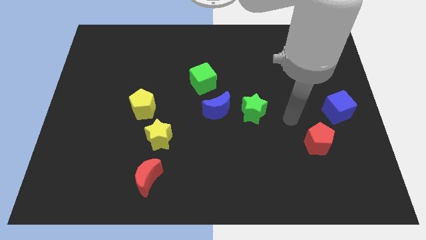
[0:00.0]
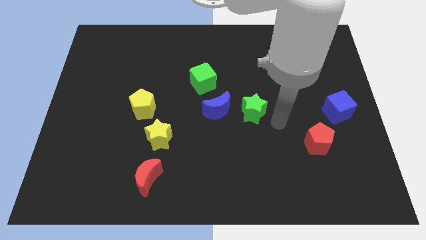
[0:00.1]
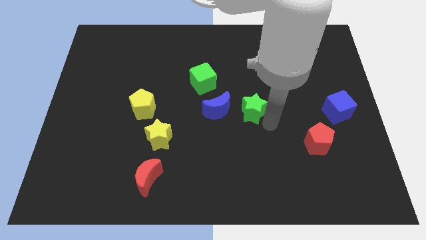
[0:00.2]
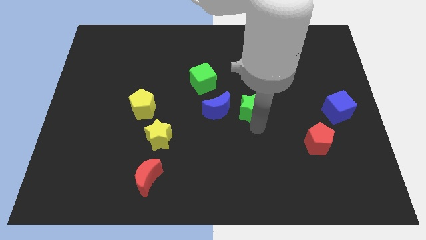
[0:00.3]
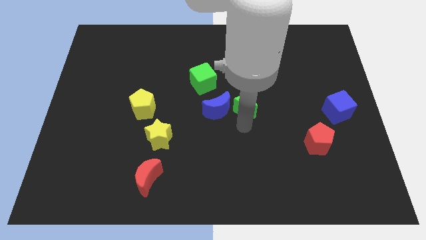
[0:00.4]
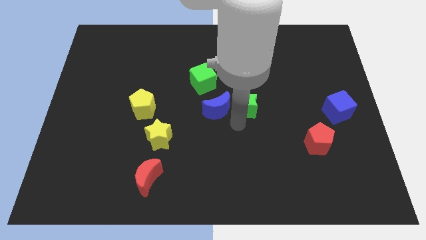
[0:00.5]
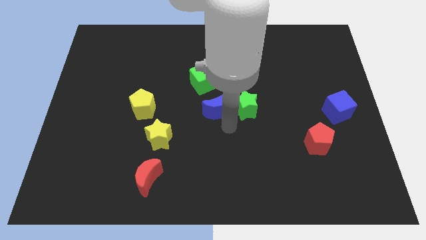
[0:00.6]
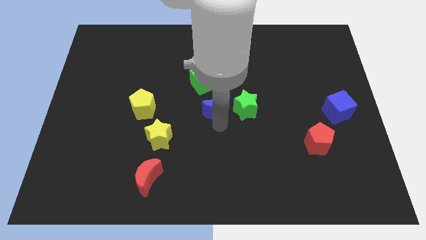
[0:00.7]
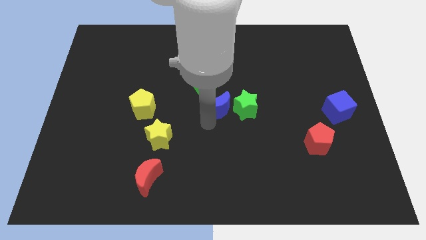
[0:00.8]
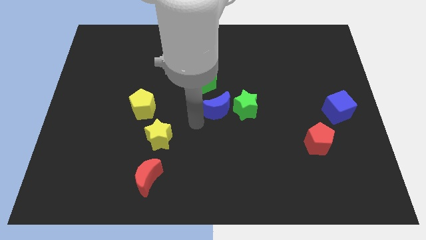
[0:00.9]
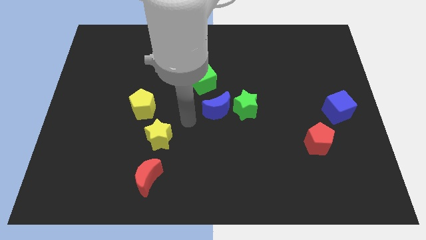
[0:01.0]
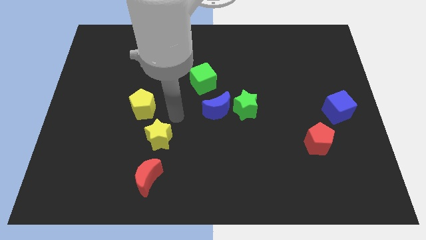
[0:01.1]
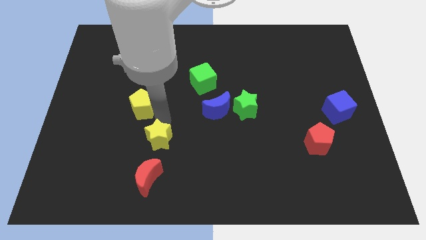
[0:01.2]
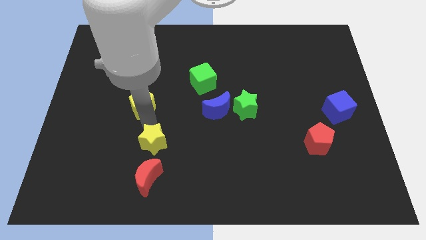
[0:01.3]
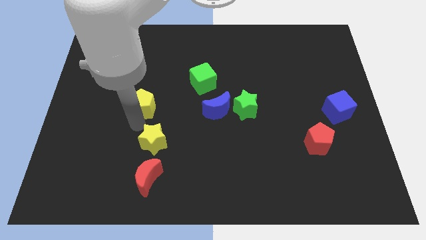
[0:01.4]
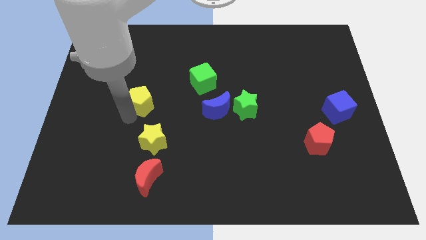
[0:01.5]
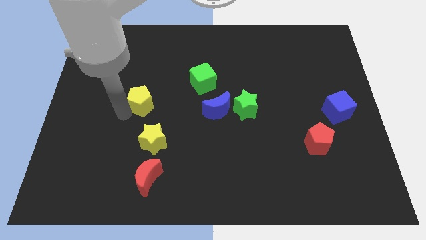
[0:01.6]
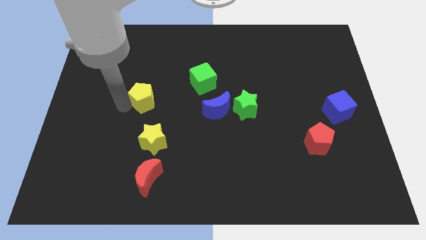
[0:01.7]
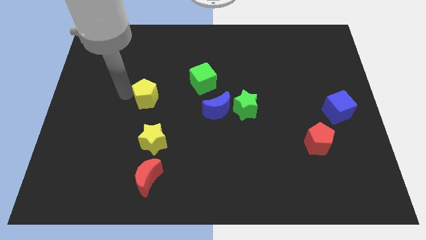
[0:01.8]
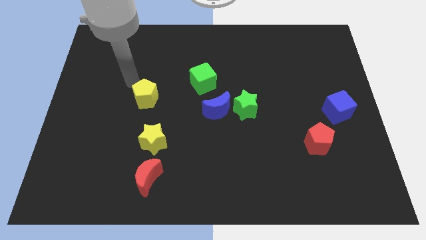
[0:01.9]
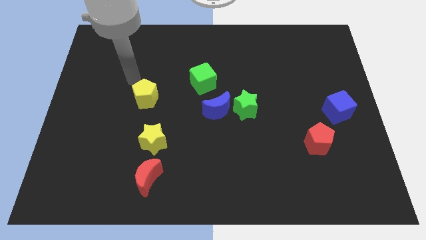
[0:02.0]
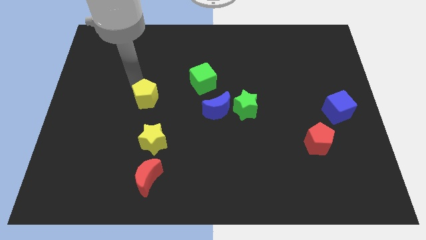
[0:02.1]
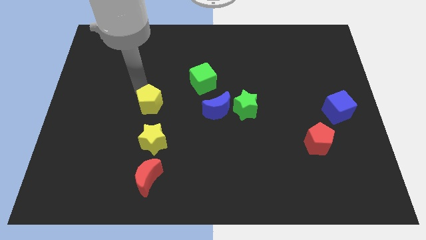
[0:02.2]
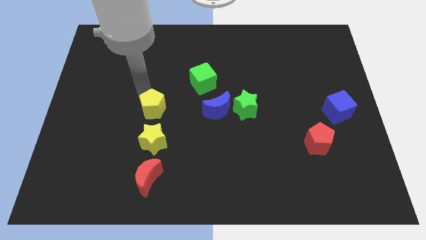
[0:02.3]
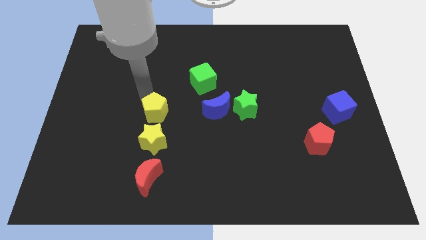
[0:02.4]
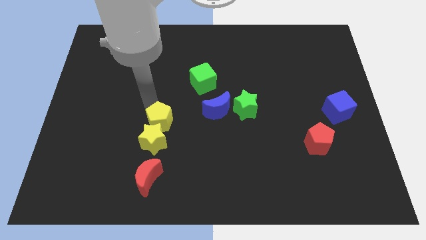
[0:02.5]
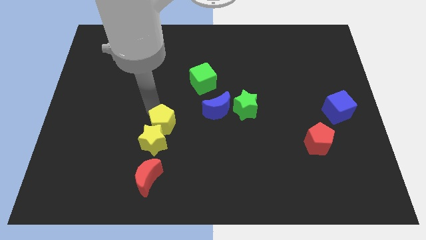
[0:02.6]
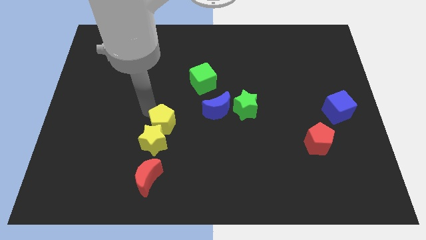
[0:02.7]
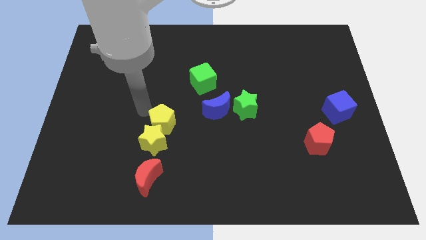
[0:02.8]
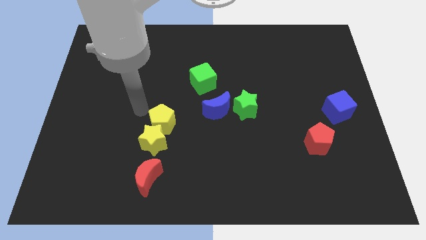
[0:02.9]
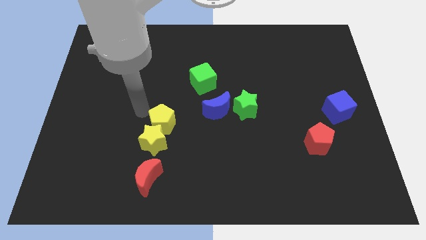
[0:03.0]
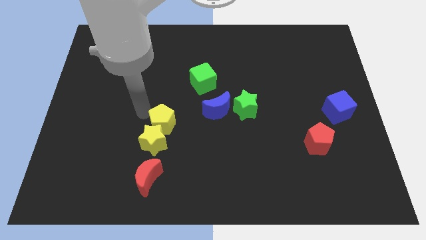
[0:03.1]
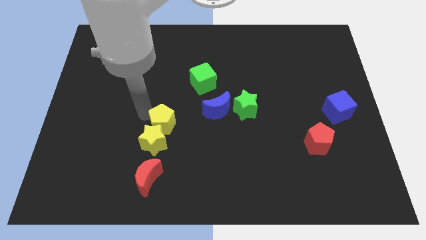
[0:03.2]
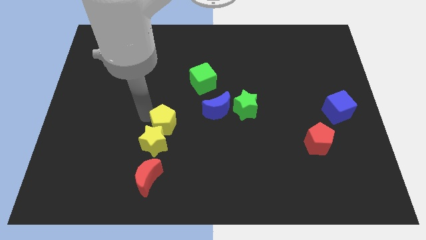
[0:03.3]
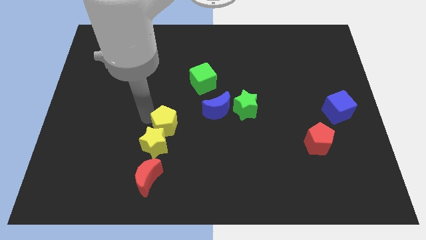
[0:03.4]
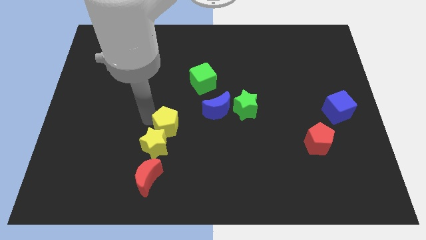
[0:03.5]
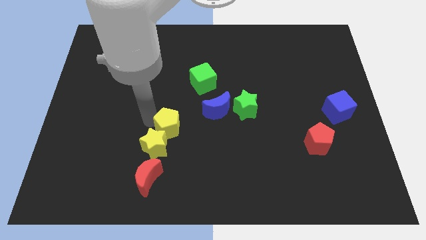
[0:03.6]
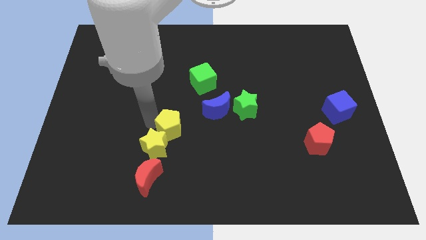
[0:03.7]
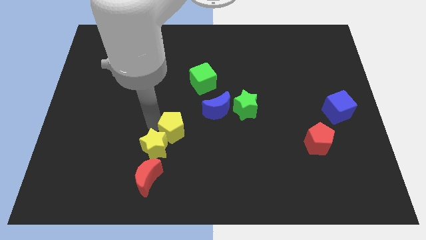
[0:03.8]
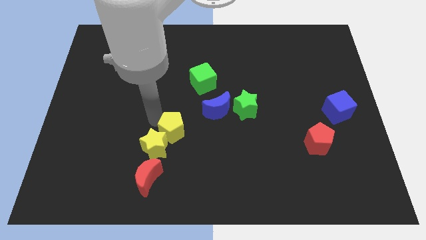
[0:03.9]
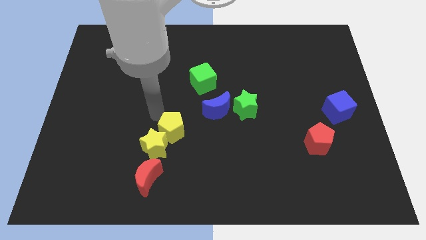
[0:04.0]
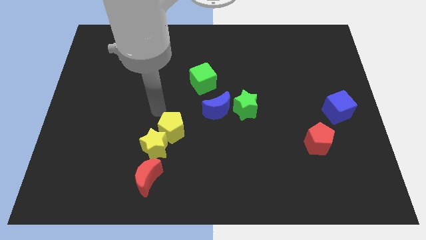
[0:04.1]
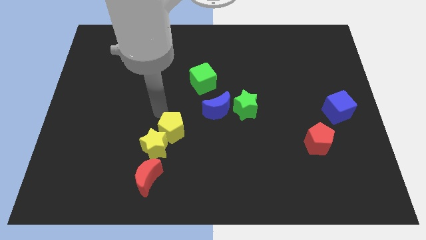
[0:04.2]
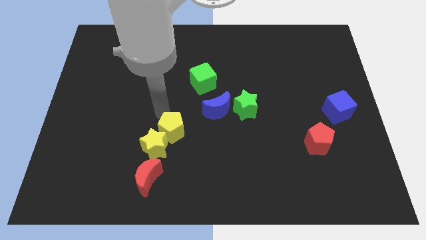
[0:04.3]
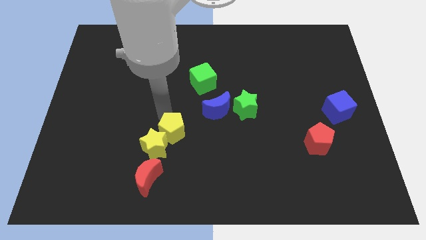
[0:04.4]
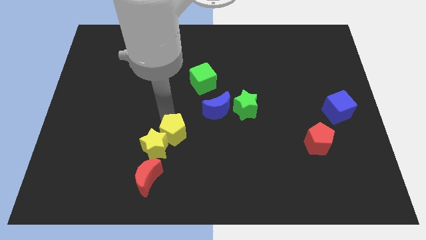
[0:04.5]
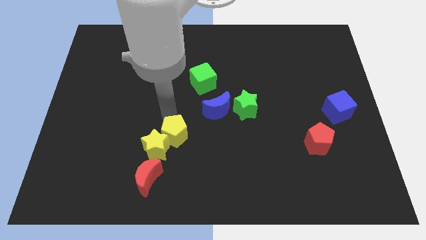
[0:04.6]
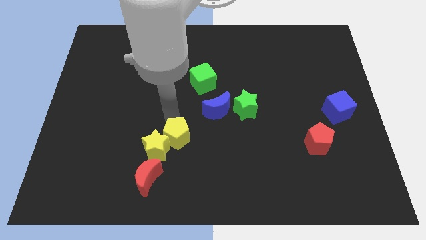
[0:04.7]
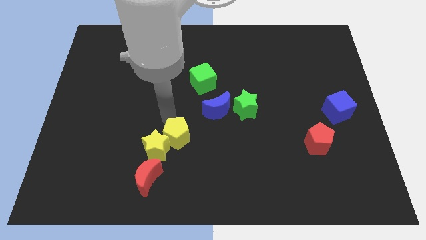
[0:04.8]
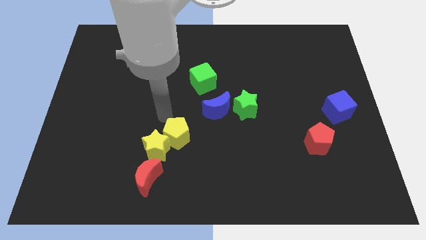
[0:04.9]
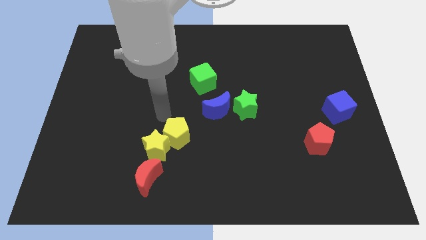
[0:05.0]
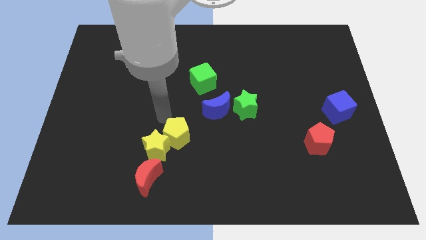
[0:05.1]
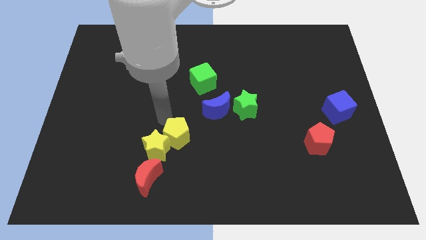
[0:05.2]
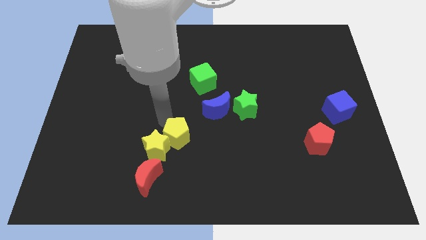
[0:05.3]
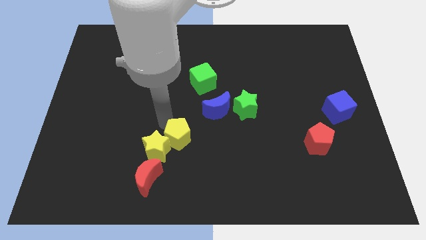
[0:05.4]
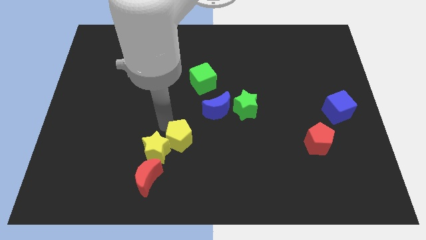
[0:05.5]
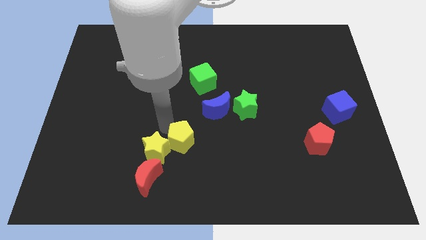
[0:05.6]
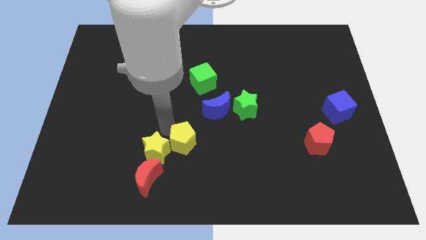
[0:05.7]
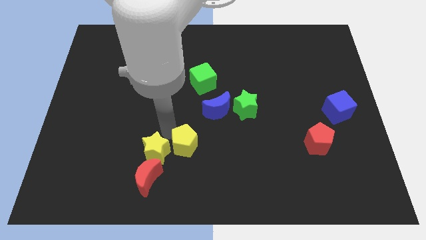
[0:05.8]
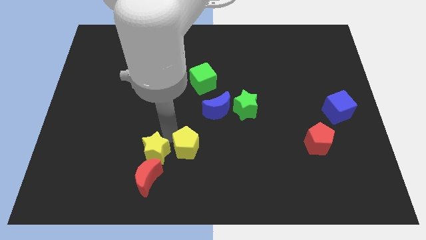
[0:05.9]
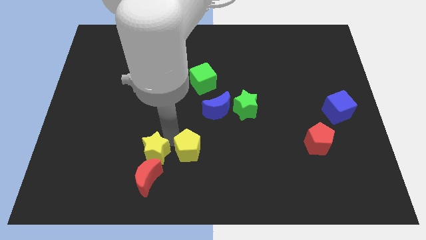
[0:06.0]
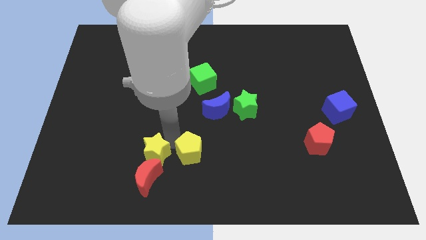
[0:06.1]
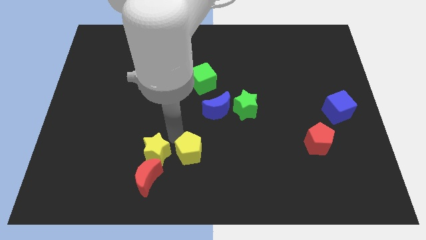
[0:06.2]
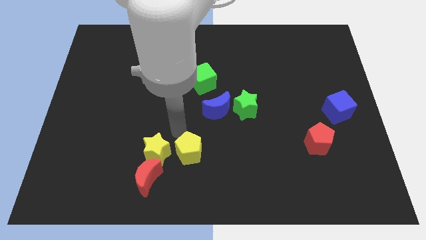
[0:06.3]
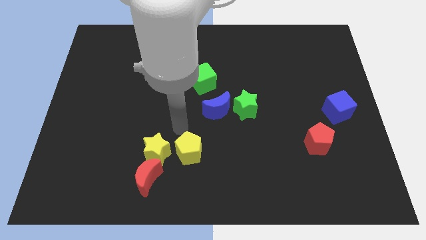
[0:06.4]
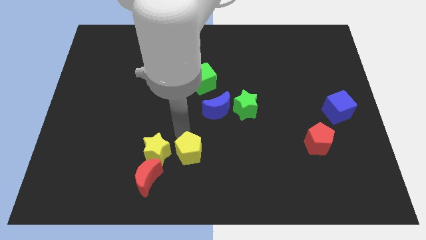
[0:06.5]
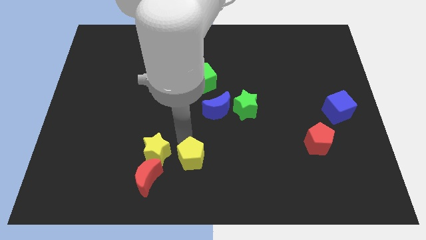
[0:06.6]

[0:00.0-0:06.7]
put the yellow pentagon to the right of the red moon
